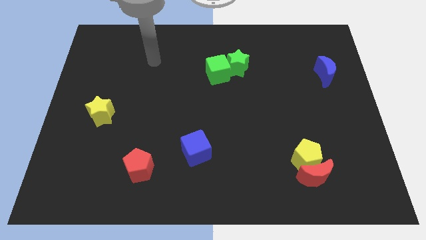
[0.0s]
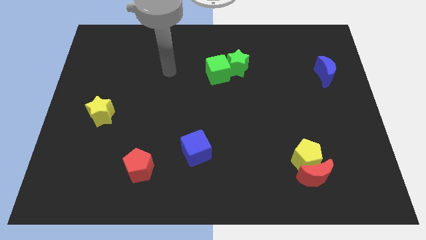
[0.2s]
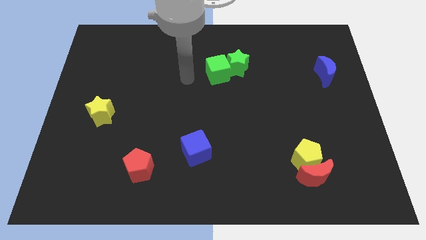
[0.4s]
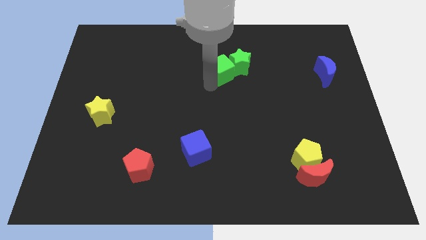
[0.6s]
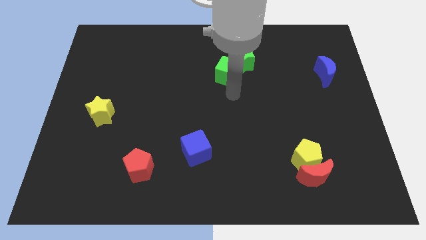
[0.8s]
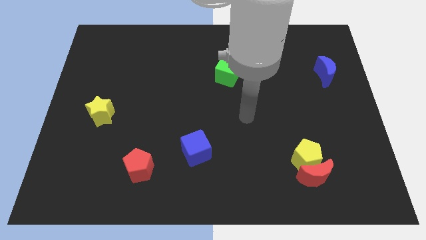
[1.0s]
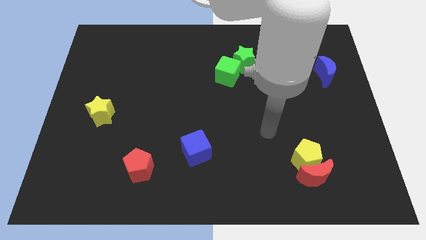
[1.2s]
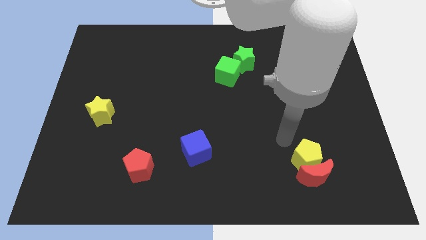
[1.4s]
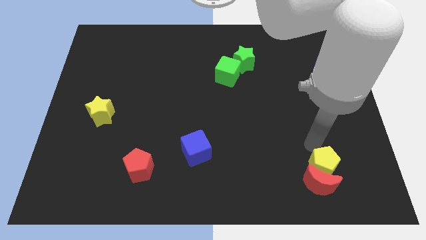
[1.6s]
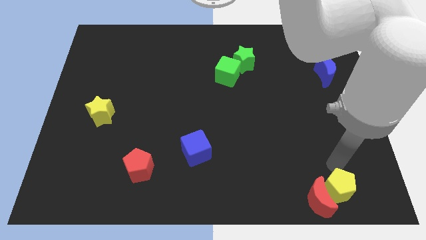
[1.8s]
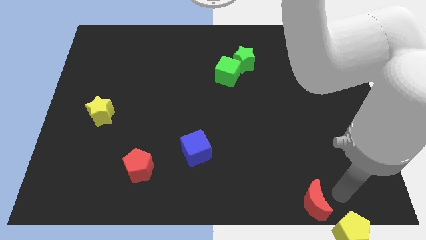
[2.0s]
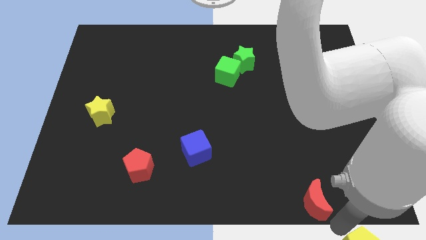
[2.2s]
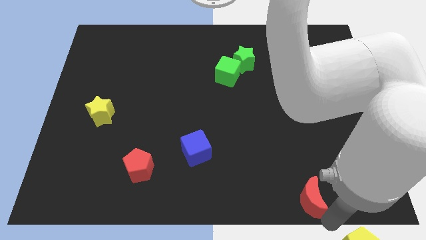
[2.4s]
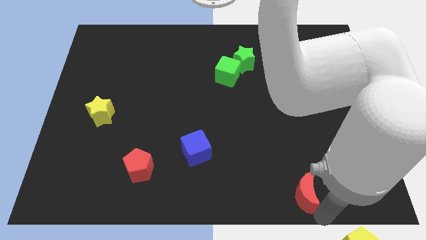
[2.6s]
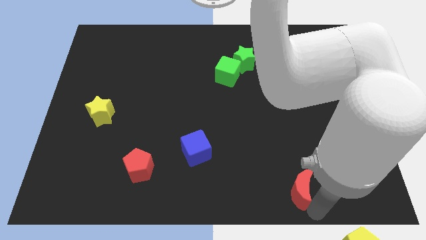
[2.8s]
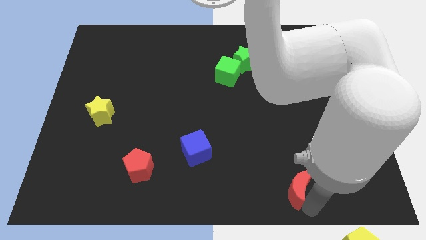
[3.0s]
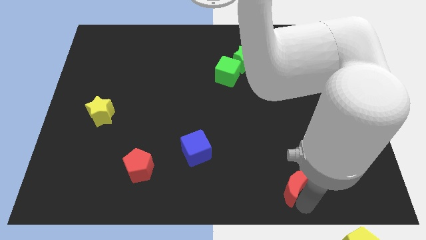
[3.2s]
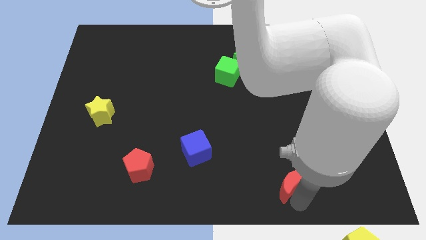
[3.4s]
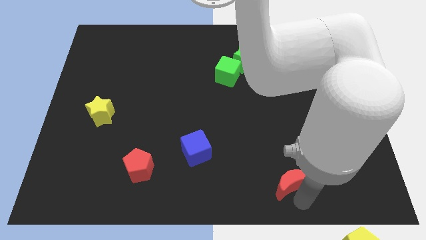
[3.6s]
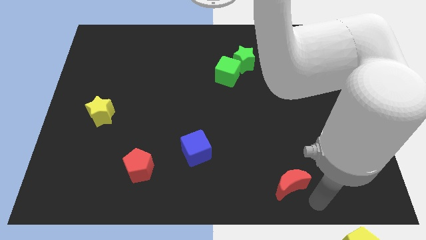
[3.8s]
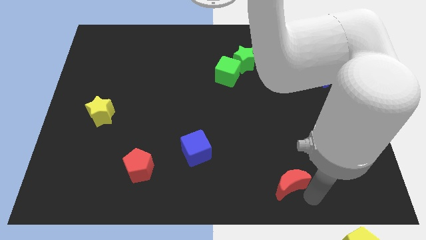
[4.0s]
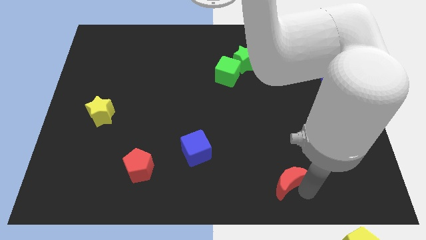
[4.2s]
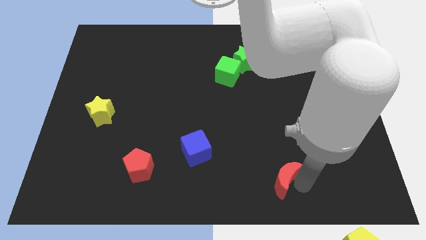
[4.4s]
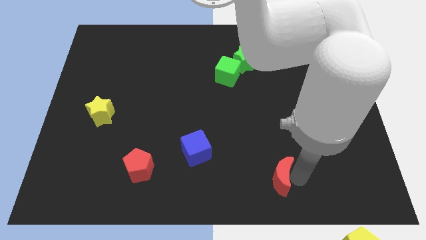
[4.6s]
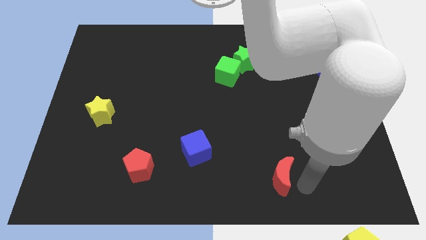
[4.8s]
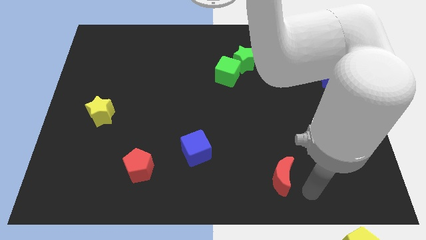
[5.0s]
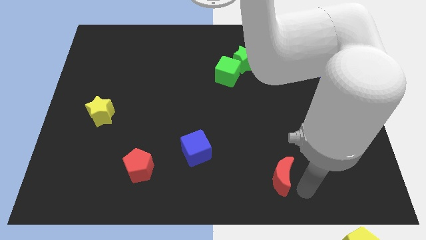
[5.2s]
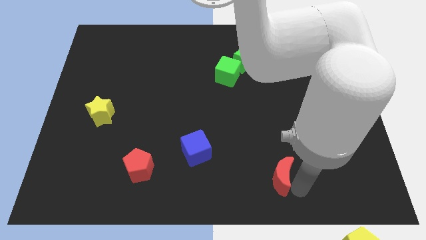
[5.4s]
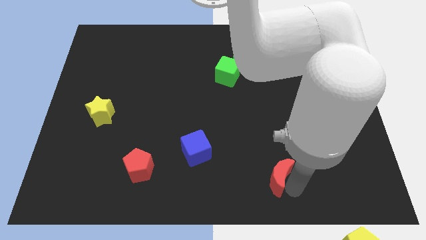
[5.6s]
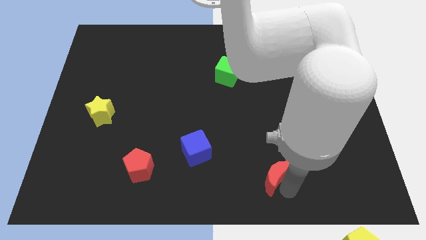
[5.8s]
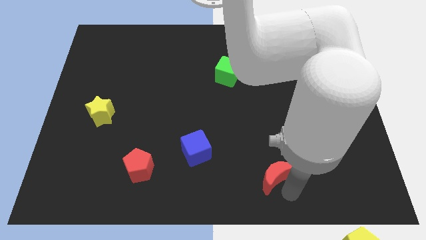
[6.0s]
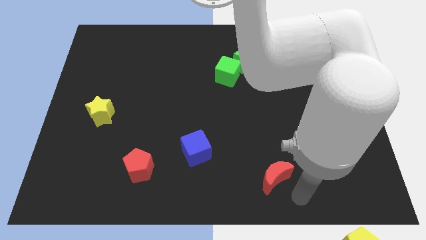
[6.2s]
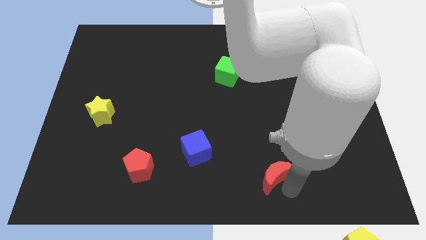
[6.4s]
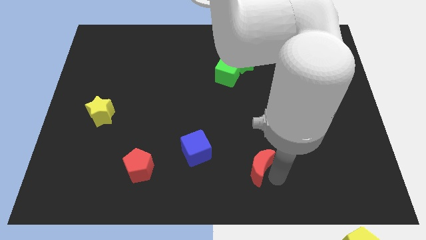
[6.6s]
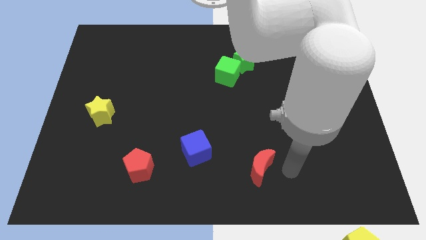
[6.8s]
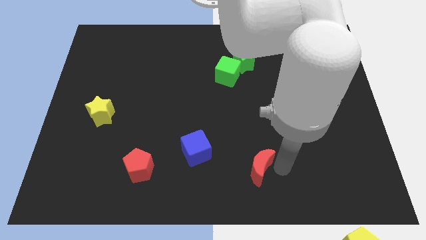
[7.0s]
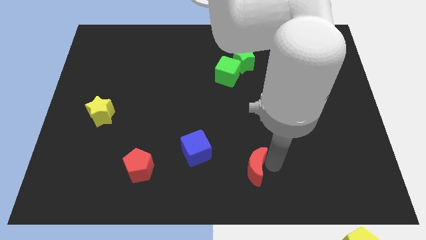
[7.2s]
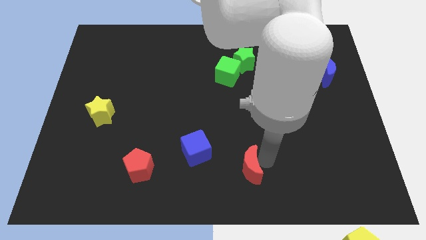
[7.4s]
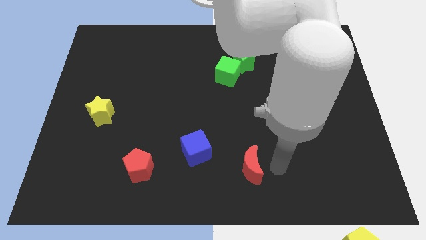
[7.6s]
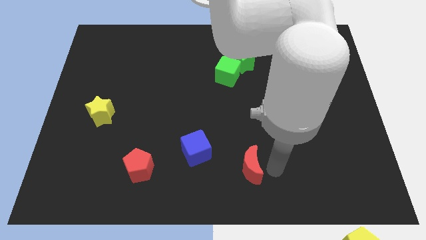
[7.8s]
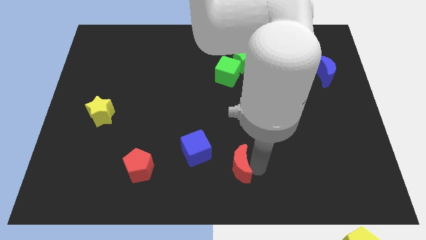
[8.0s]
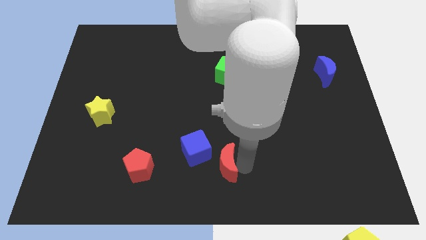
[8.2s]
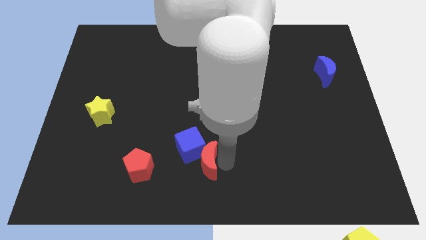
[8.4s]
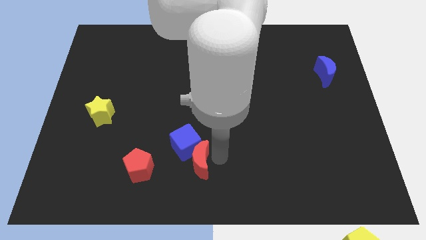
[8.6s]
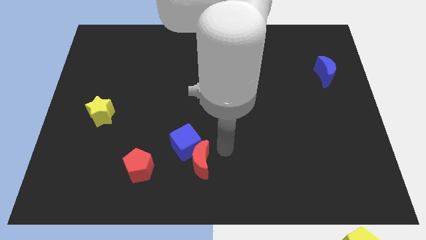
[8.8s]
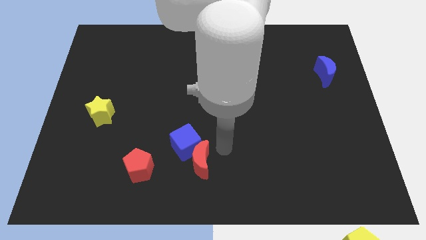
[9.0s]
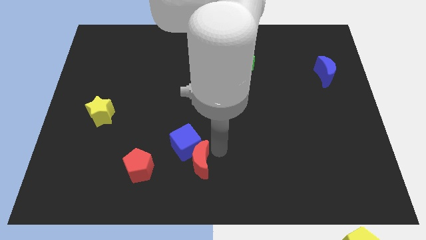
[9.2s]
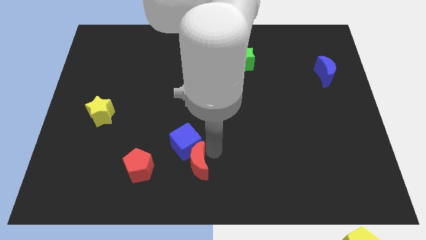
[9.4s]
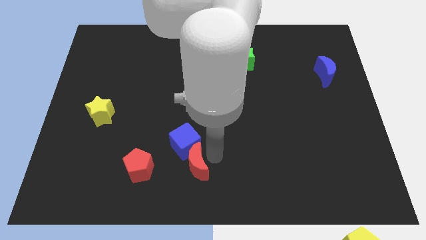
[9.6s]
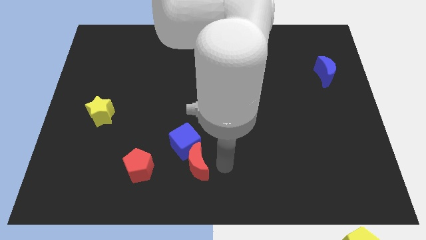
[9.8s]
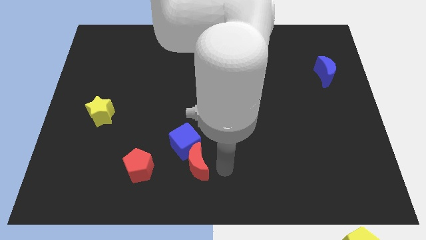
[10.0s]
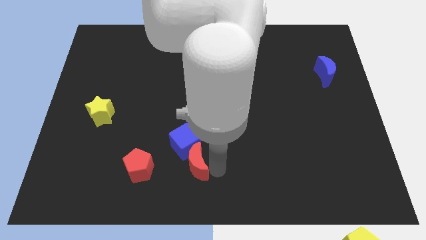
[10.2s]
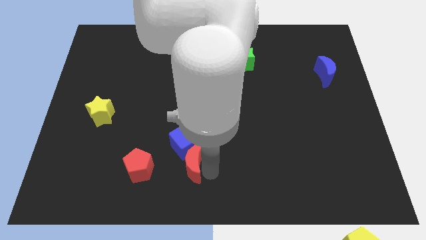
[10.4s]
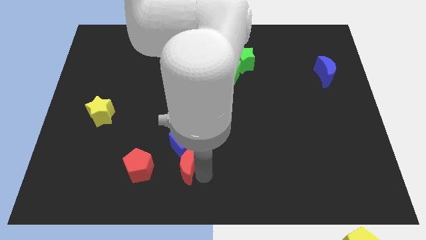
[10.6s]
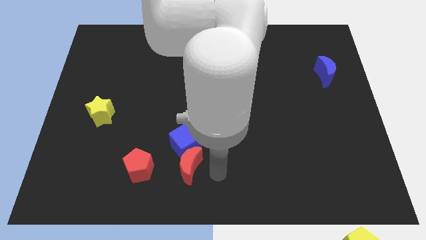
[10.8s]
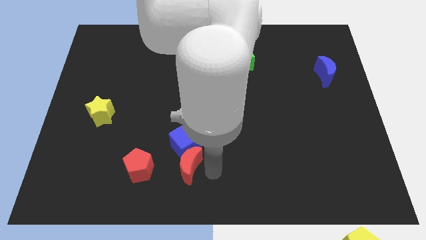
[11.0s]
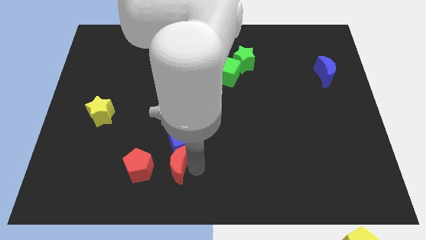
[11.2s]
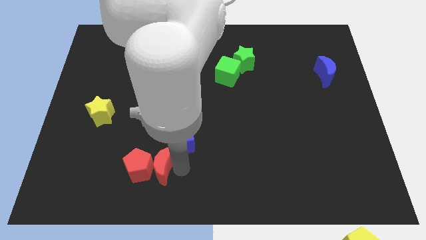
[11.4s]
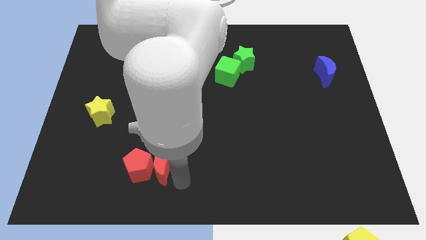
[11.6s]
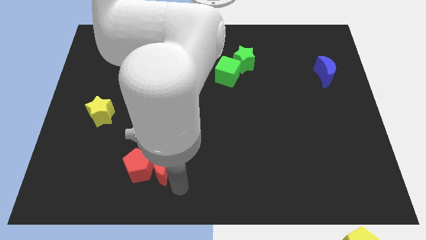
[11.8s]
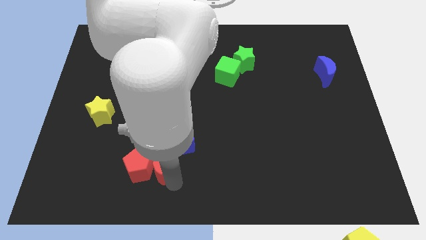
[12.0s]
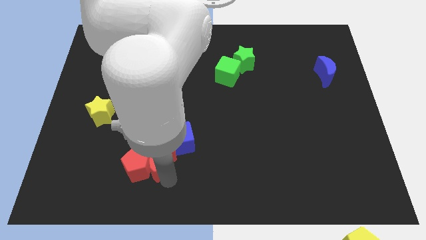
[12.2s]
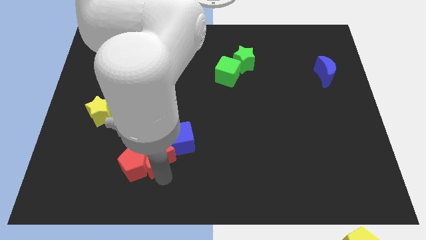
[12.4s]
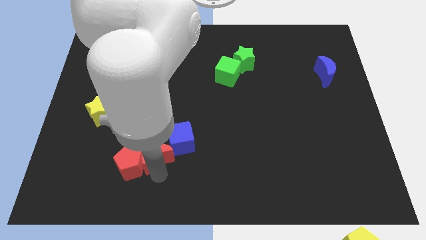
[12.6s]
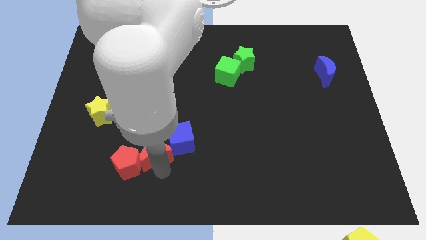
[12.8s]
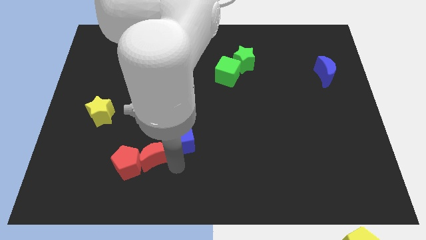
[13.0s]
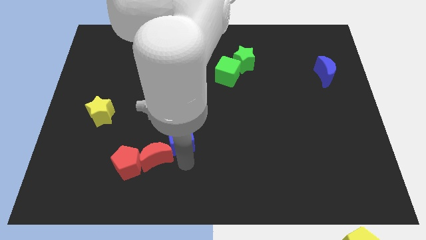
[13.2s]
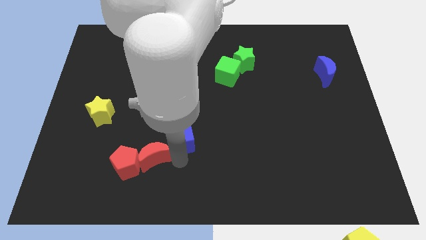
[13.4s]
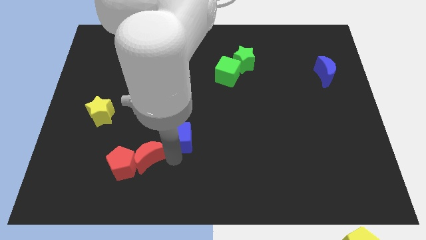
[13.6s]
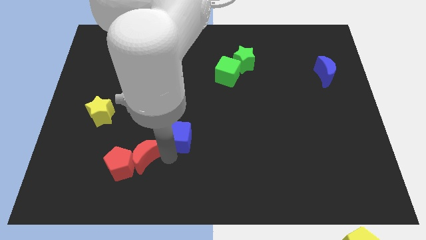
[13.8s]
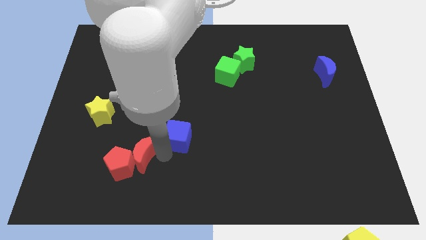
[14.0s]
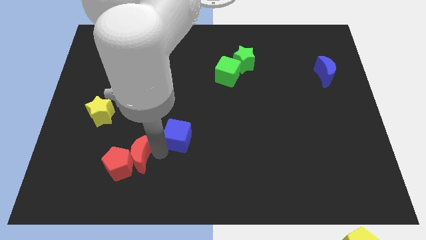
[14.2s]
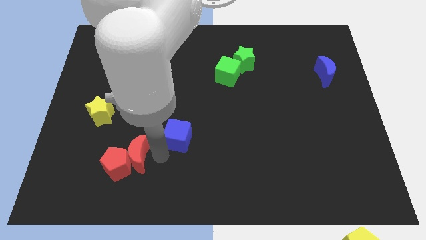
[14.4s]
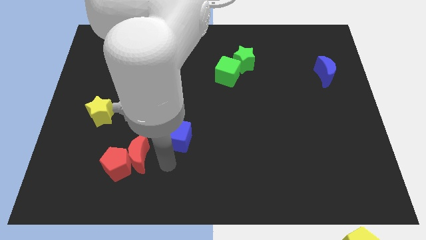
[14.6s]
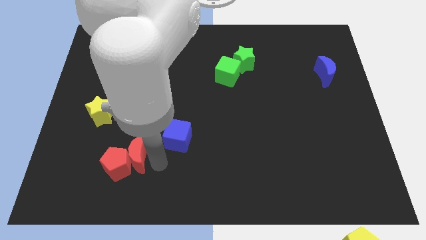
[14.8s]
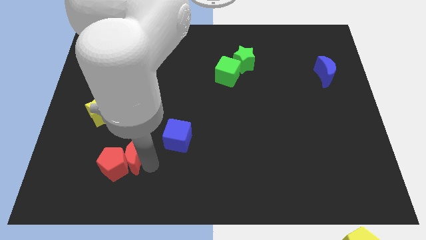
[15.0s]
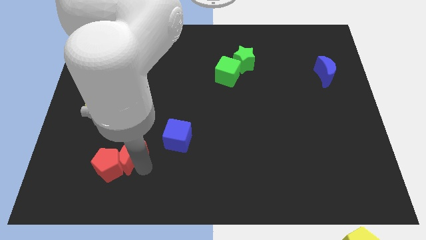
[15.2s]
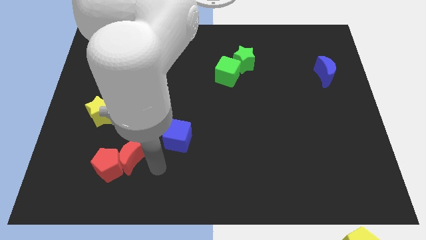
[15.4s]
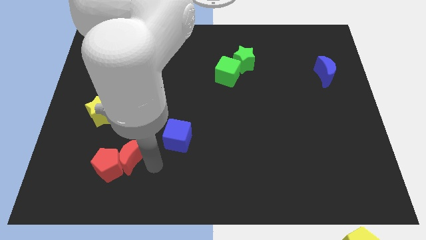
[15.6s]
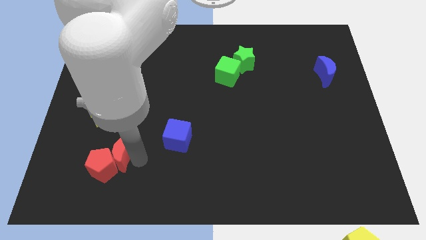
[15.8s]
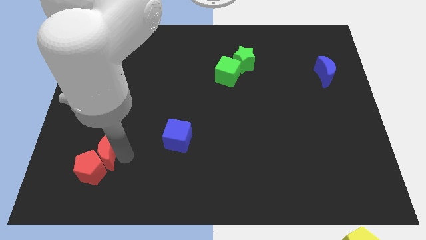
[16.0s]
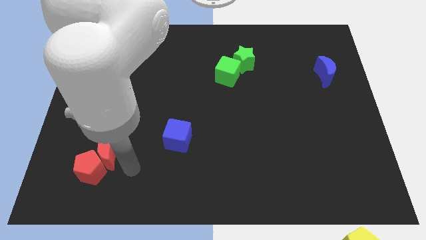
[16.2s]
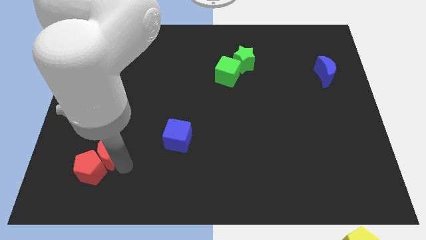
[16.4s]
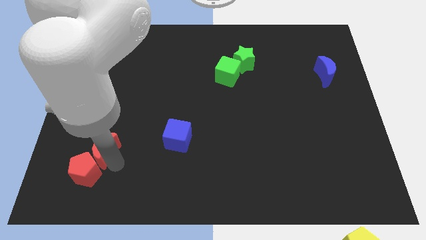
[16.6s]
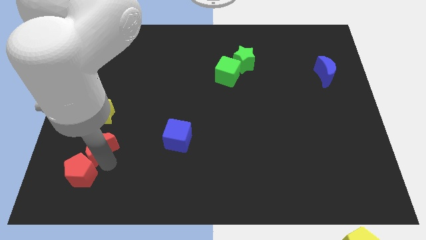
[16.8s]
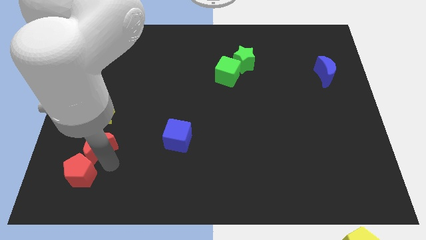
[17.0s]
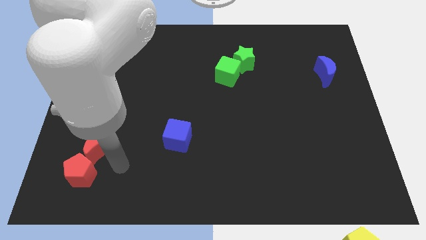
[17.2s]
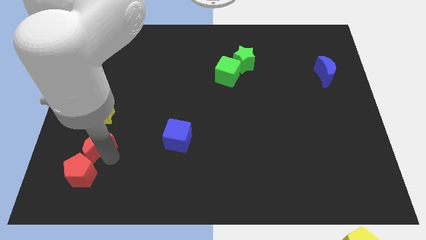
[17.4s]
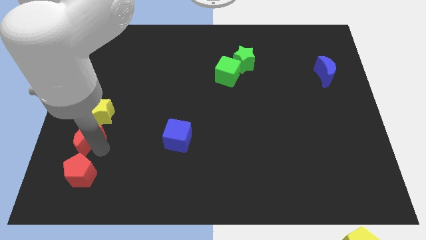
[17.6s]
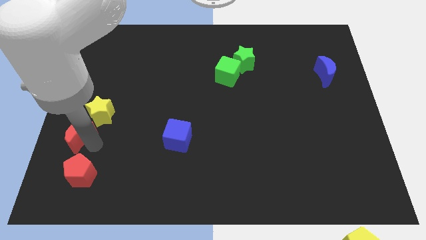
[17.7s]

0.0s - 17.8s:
put the red moon to the center left
